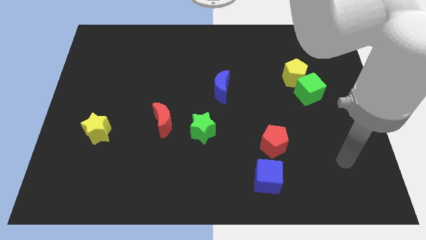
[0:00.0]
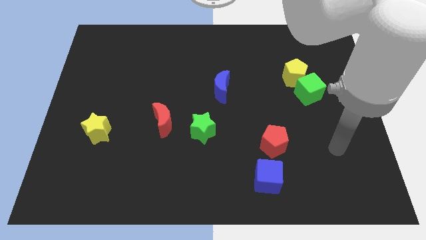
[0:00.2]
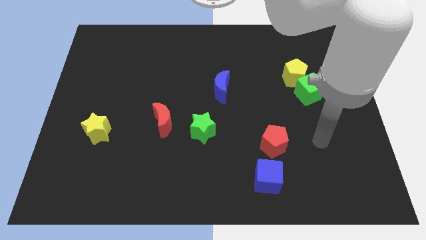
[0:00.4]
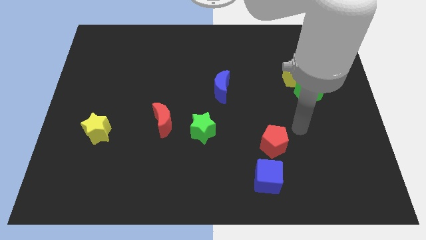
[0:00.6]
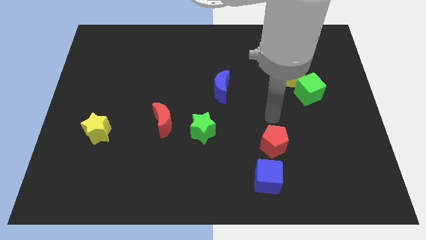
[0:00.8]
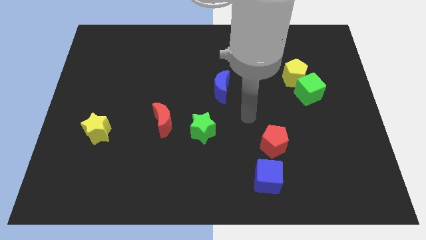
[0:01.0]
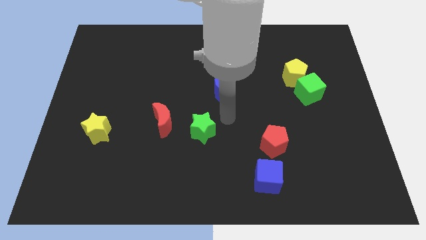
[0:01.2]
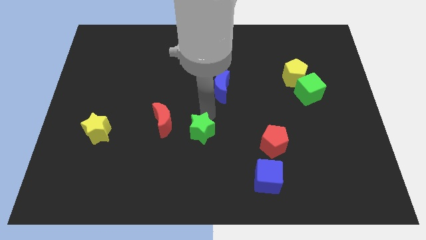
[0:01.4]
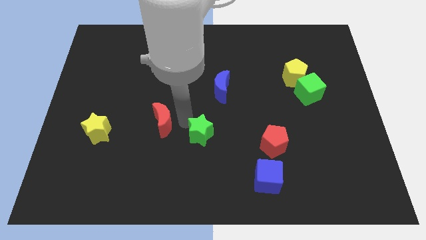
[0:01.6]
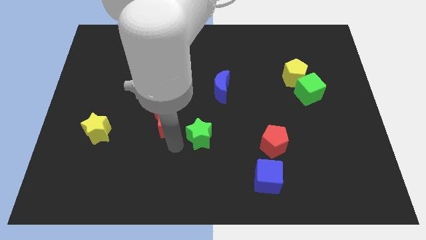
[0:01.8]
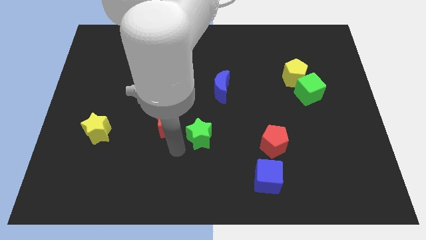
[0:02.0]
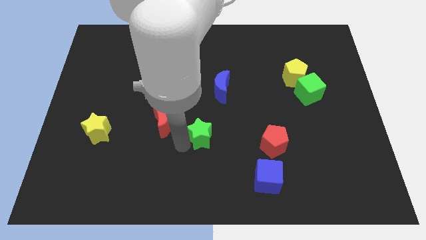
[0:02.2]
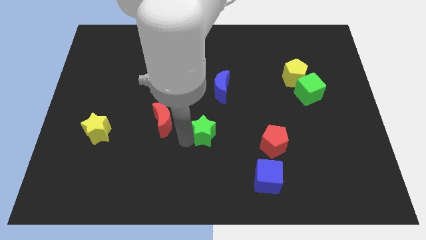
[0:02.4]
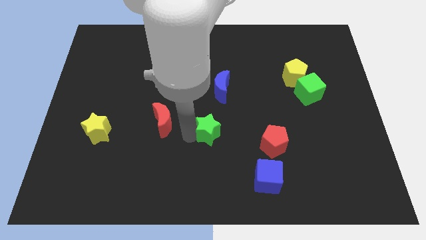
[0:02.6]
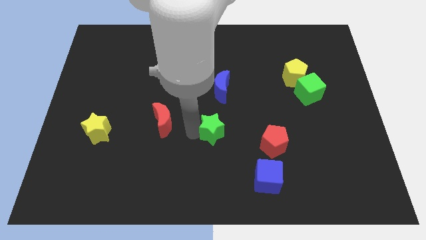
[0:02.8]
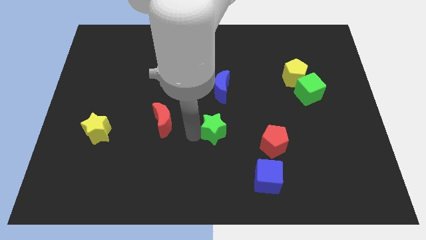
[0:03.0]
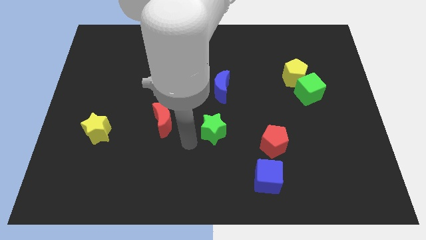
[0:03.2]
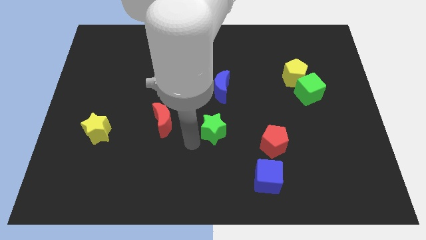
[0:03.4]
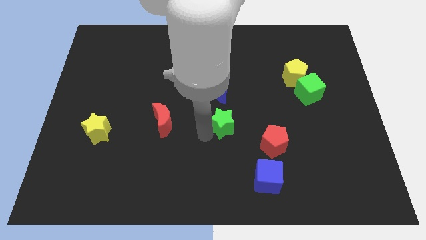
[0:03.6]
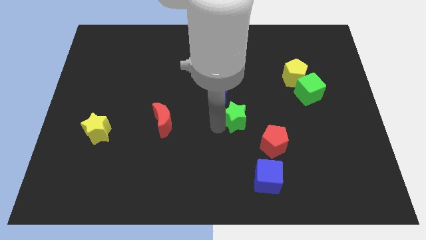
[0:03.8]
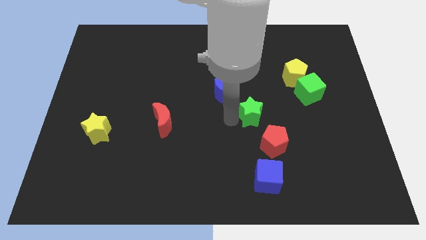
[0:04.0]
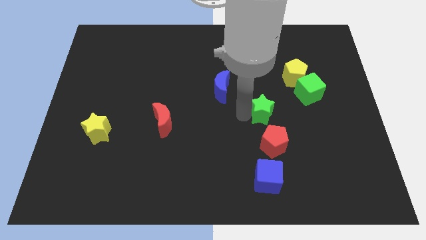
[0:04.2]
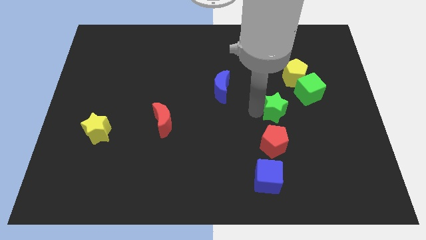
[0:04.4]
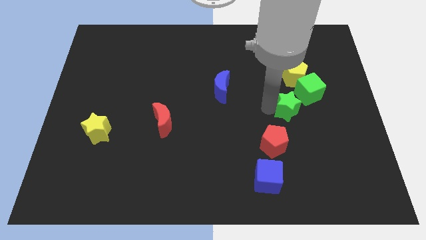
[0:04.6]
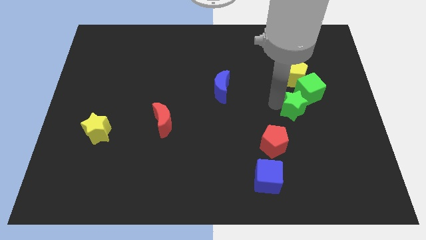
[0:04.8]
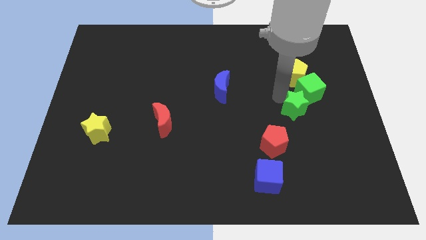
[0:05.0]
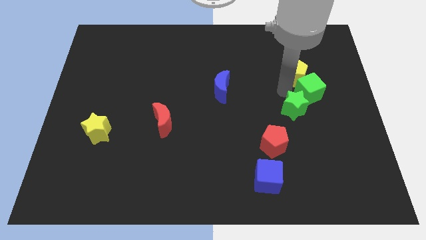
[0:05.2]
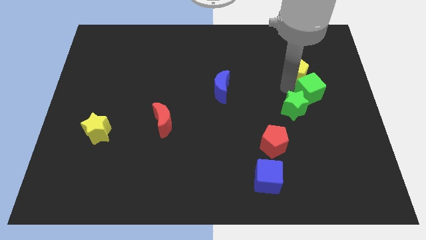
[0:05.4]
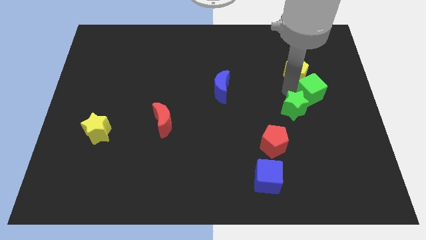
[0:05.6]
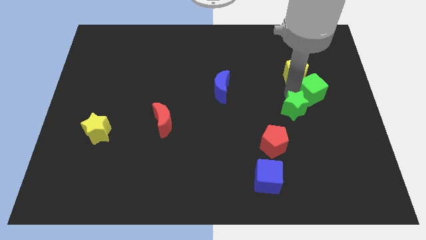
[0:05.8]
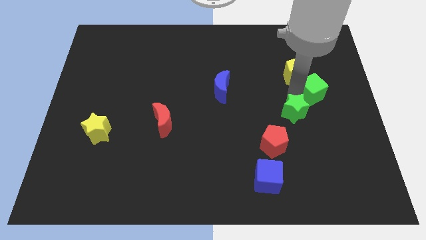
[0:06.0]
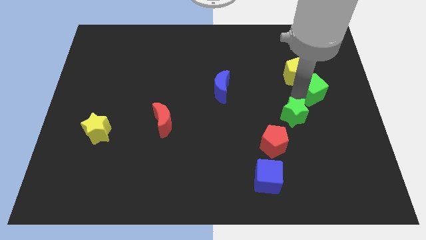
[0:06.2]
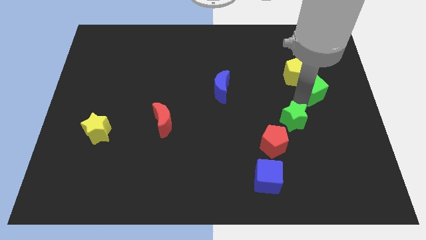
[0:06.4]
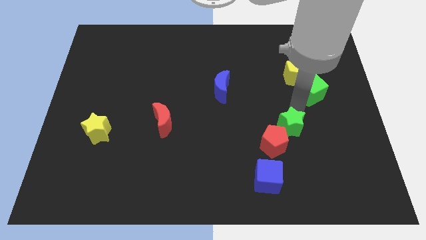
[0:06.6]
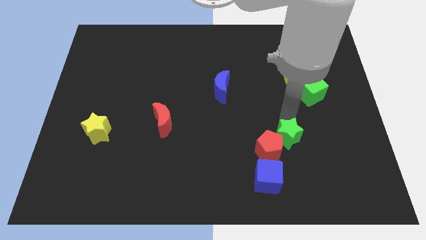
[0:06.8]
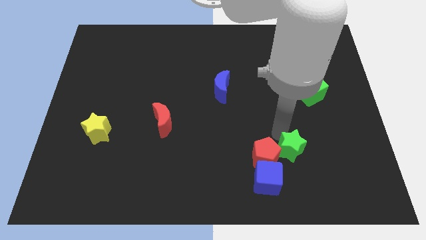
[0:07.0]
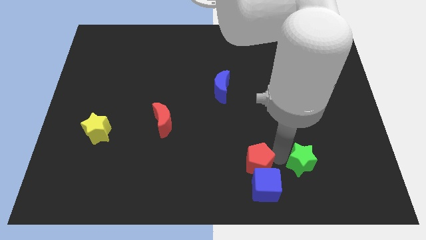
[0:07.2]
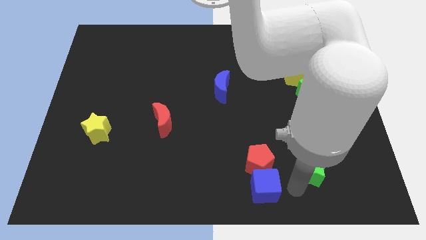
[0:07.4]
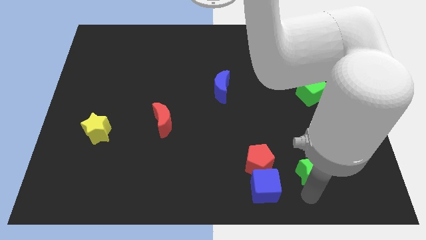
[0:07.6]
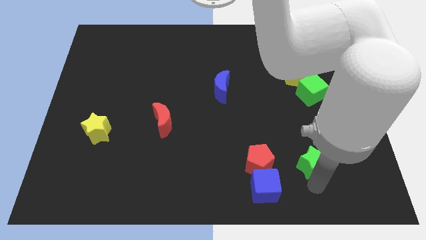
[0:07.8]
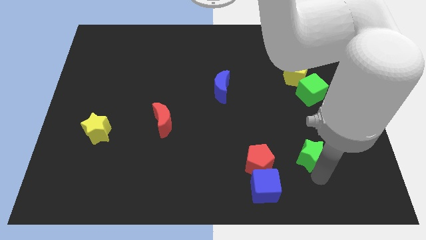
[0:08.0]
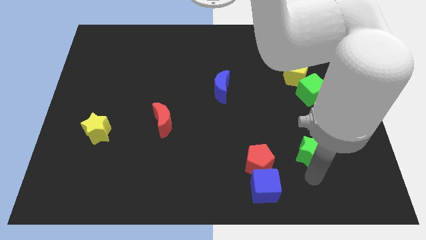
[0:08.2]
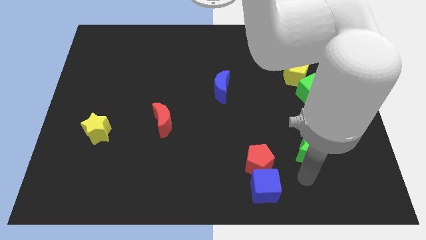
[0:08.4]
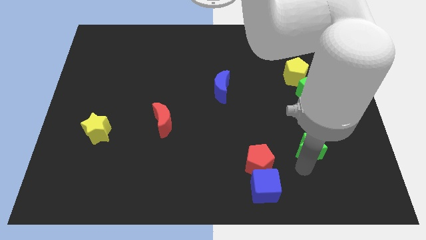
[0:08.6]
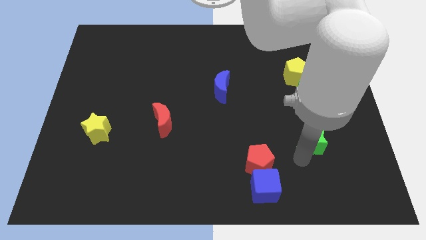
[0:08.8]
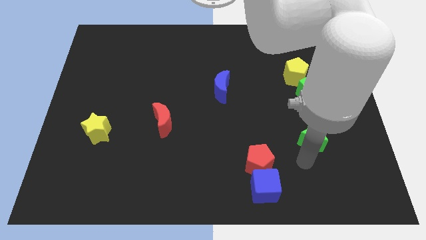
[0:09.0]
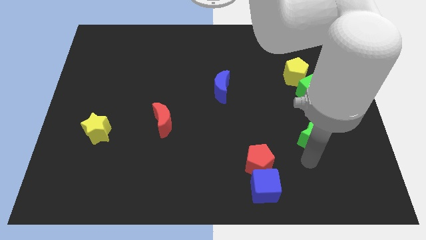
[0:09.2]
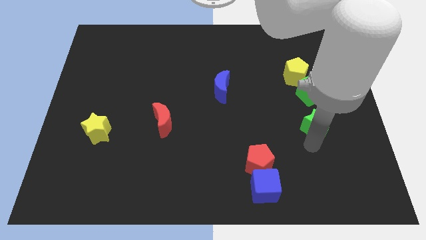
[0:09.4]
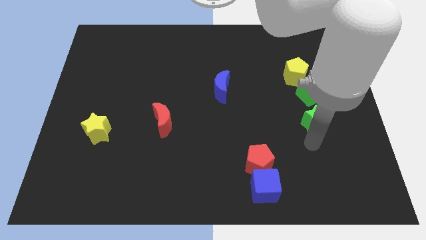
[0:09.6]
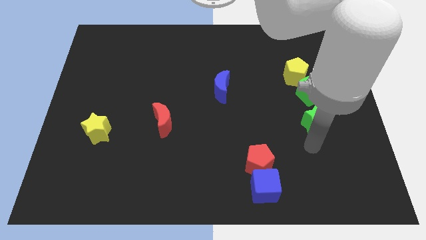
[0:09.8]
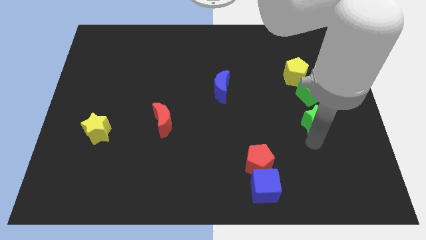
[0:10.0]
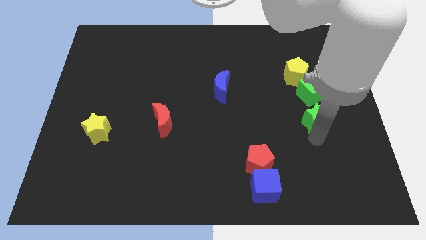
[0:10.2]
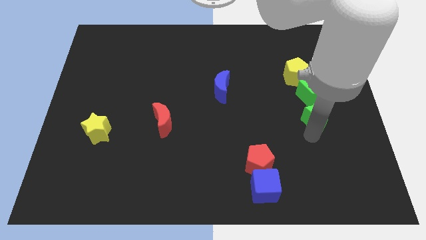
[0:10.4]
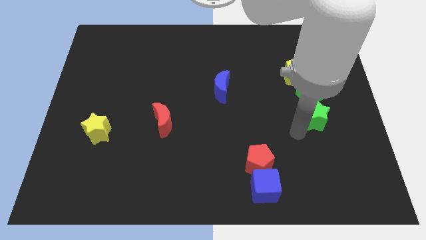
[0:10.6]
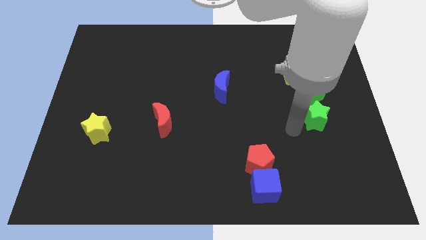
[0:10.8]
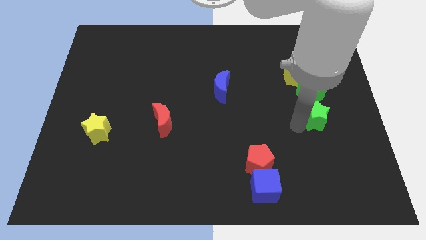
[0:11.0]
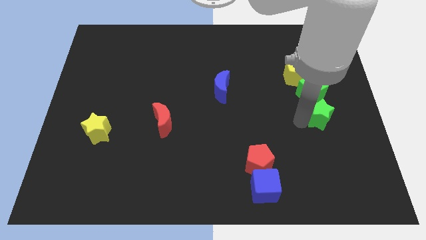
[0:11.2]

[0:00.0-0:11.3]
move the green star diagonally down and to the right of the green cube

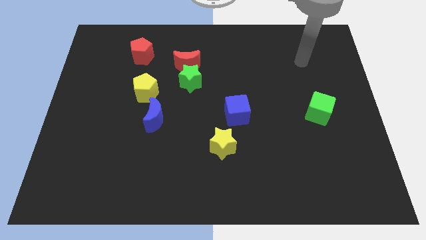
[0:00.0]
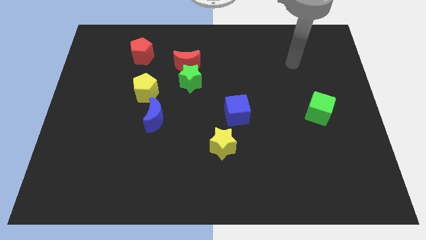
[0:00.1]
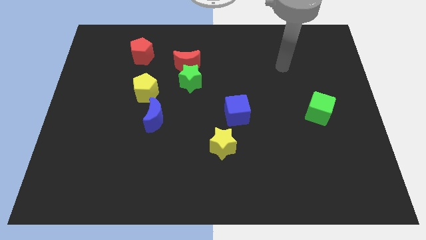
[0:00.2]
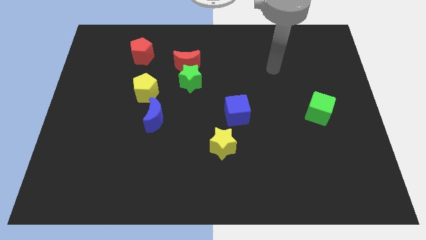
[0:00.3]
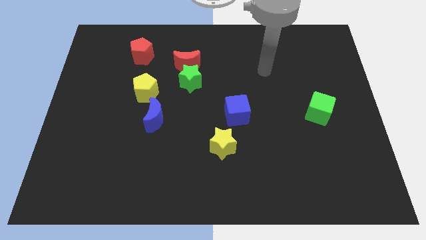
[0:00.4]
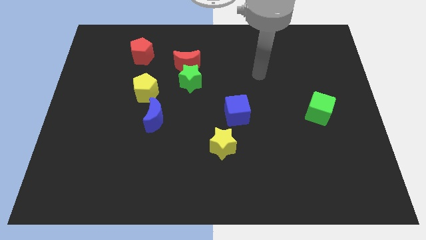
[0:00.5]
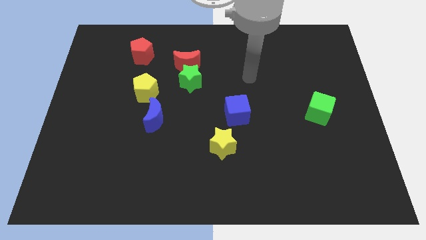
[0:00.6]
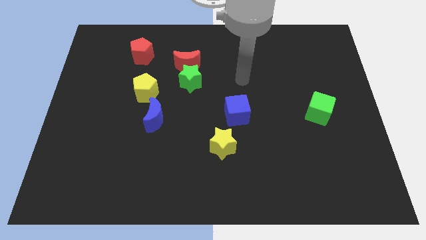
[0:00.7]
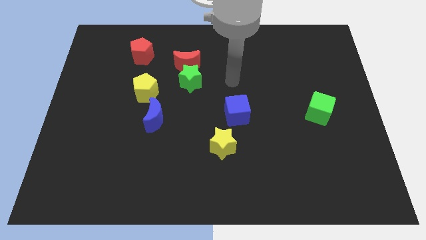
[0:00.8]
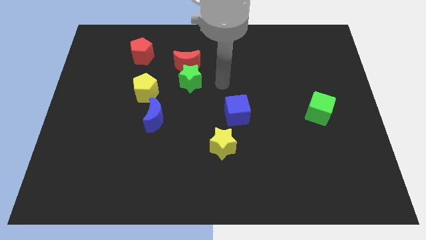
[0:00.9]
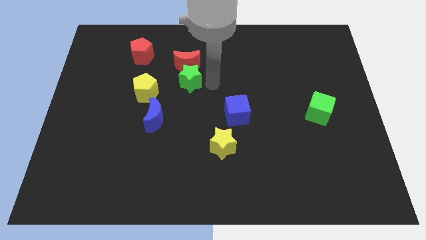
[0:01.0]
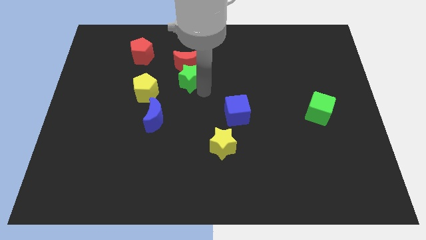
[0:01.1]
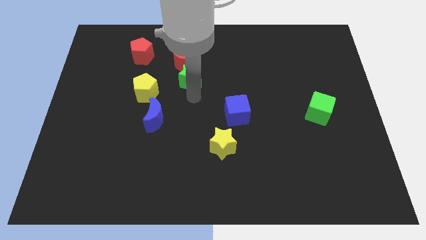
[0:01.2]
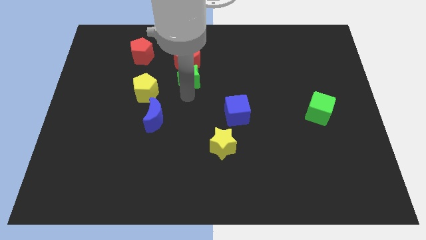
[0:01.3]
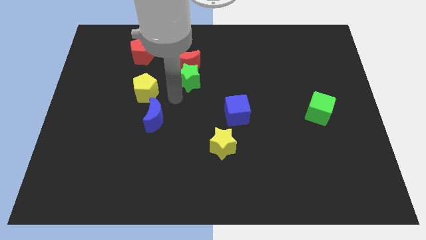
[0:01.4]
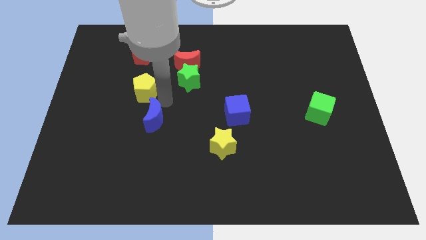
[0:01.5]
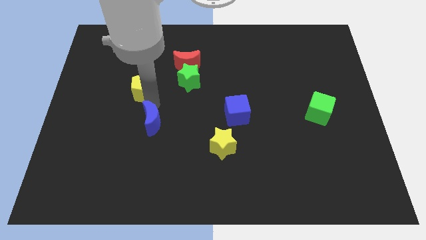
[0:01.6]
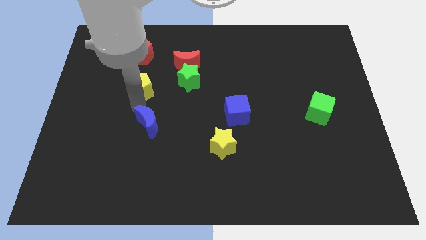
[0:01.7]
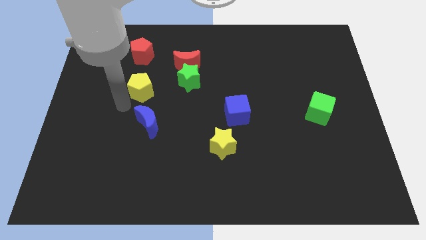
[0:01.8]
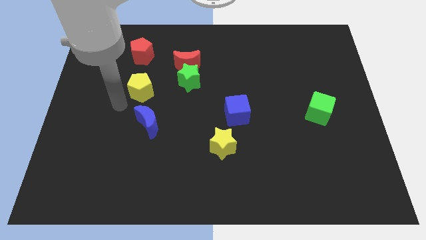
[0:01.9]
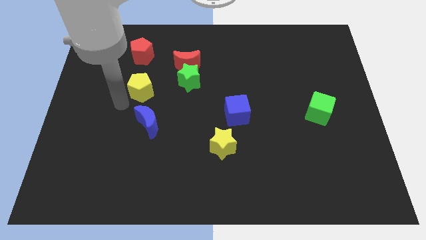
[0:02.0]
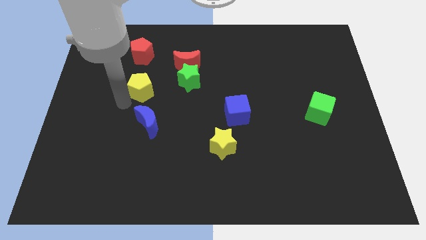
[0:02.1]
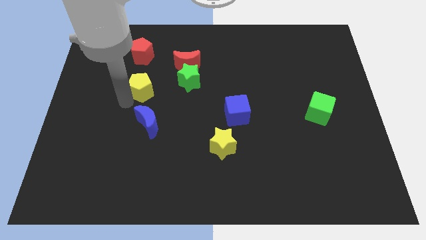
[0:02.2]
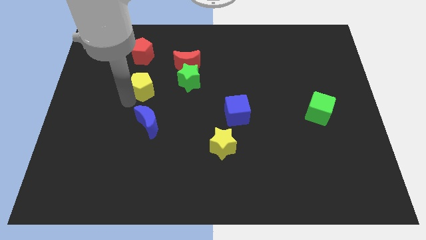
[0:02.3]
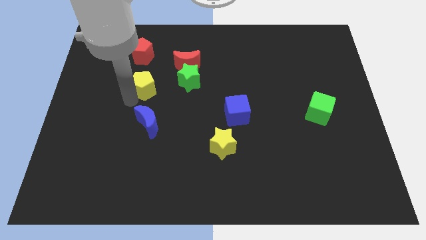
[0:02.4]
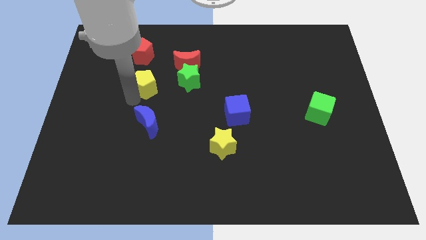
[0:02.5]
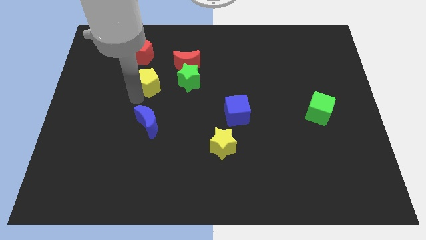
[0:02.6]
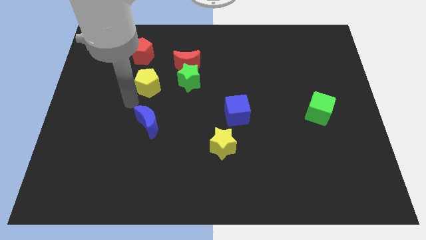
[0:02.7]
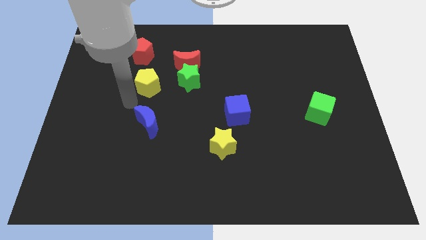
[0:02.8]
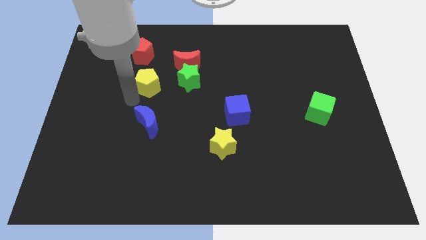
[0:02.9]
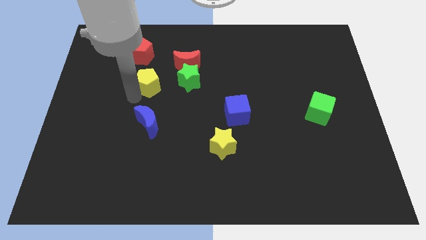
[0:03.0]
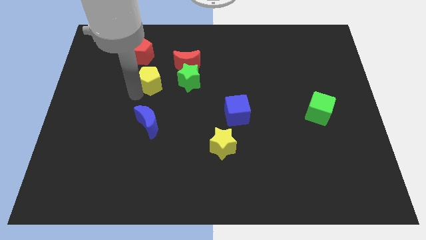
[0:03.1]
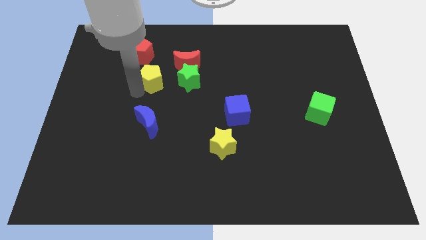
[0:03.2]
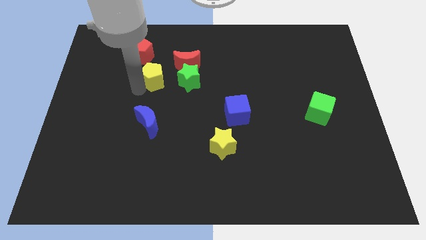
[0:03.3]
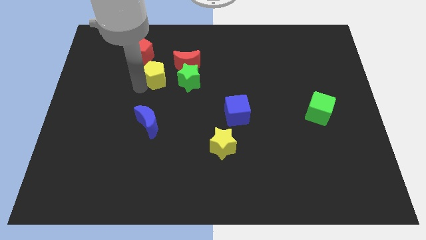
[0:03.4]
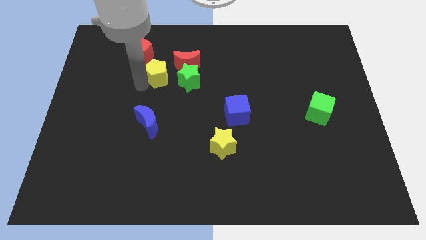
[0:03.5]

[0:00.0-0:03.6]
put the yellow pentagon to the top left of the green star
